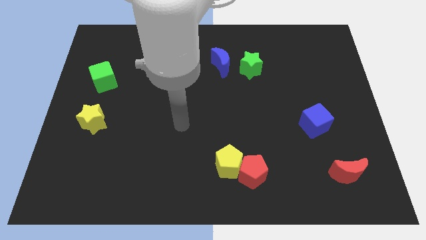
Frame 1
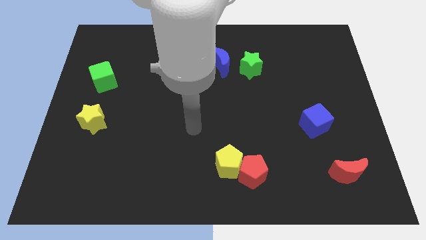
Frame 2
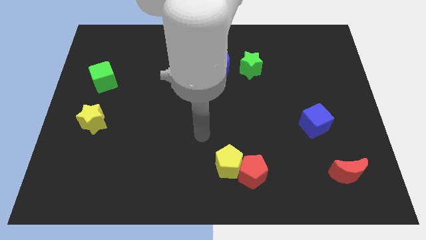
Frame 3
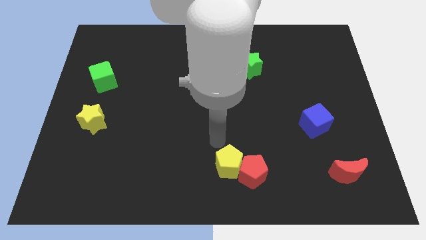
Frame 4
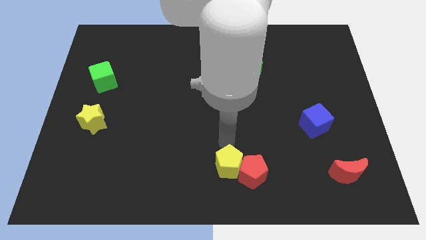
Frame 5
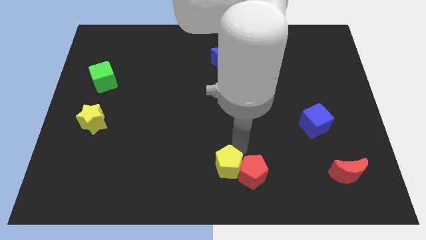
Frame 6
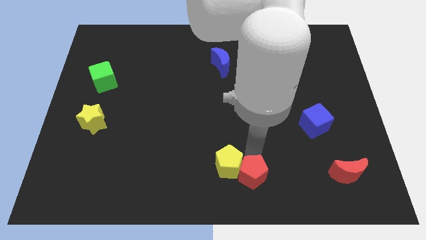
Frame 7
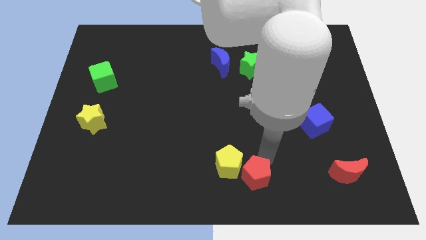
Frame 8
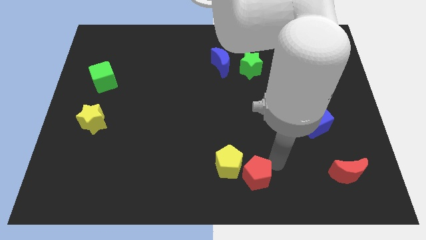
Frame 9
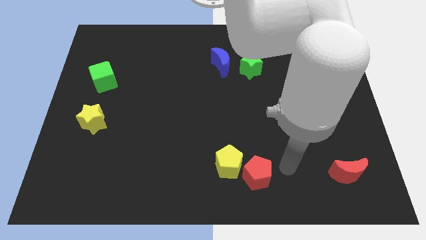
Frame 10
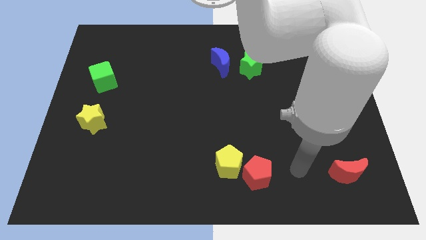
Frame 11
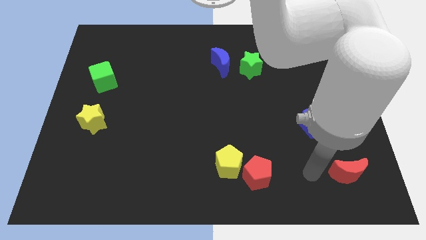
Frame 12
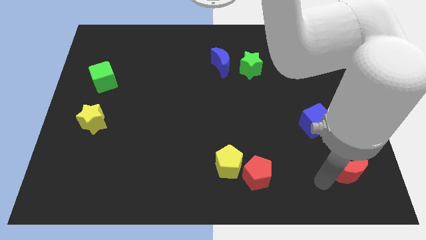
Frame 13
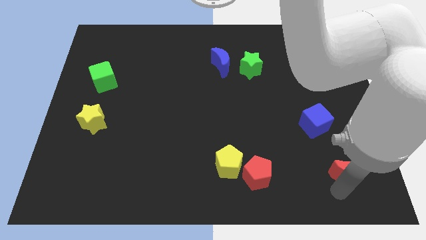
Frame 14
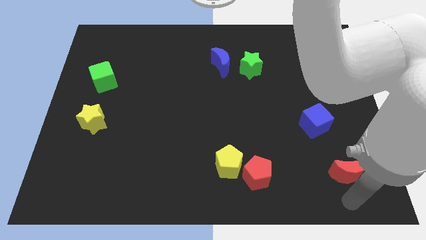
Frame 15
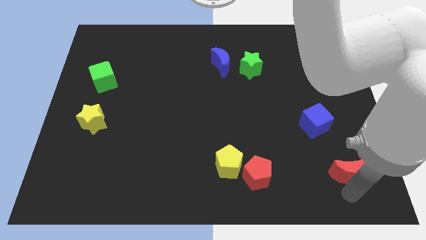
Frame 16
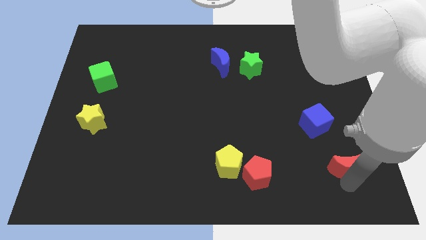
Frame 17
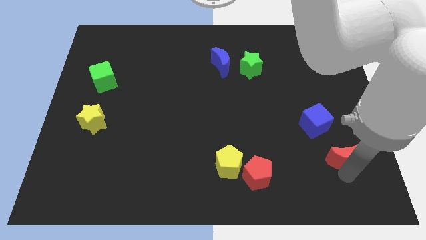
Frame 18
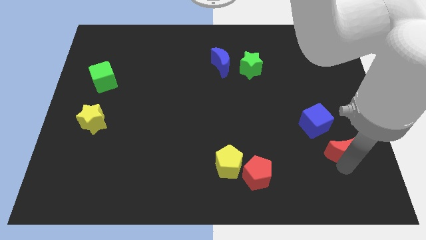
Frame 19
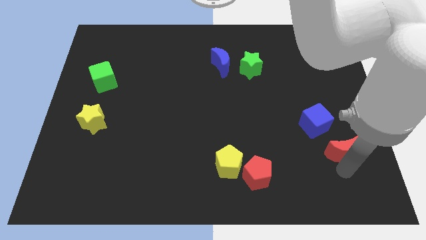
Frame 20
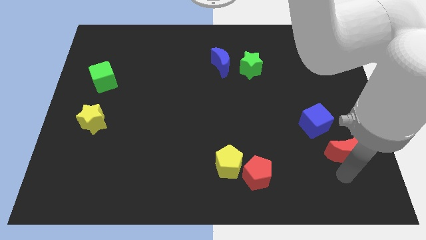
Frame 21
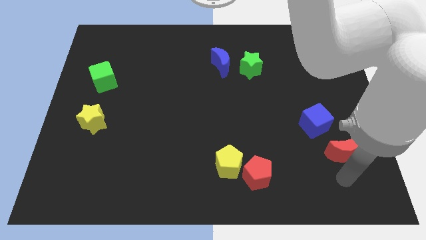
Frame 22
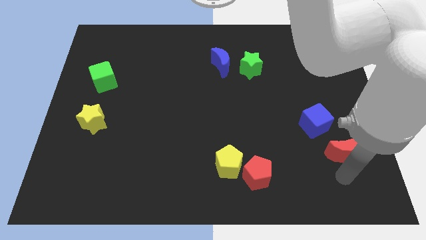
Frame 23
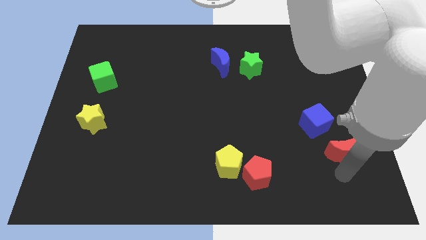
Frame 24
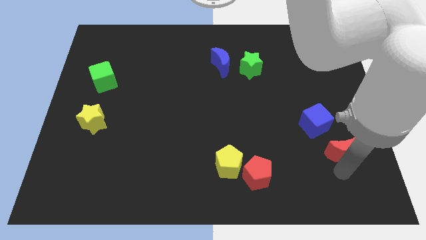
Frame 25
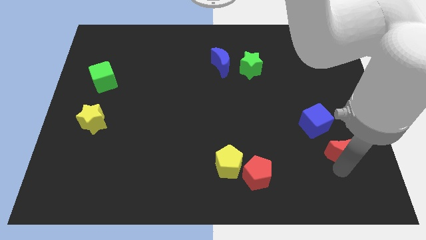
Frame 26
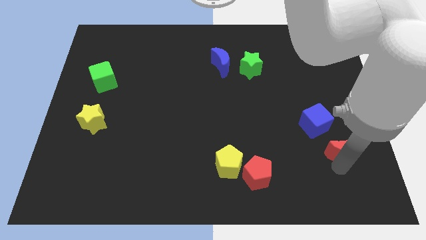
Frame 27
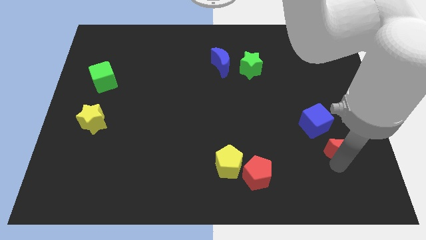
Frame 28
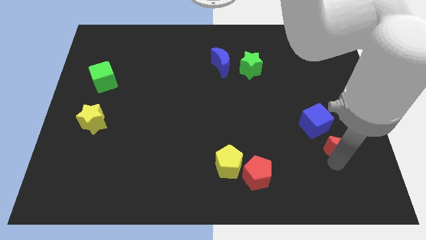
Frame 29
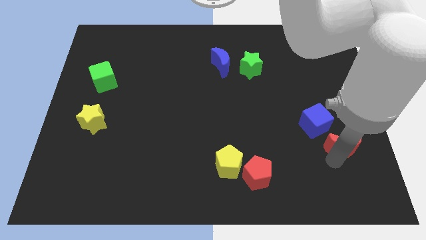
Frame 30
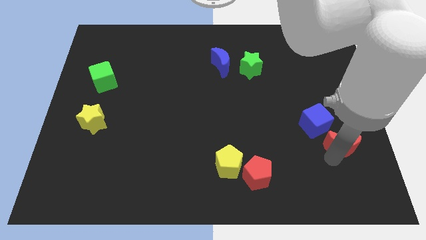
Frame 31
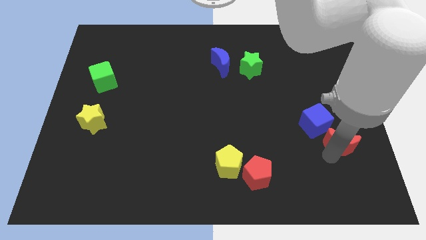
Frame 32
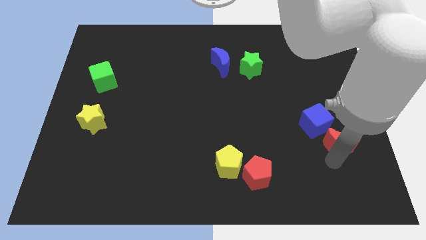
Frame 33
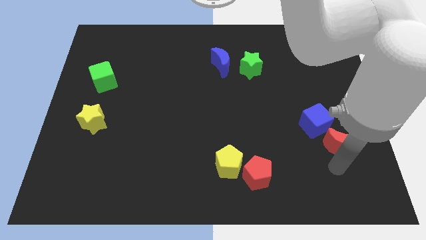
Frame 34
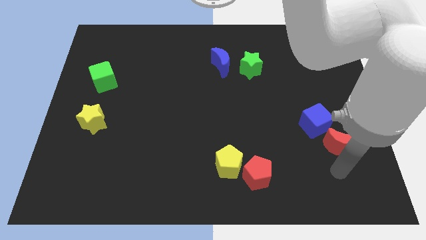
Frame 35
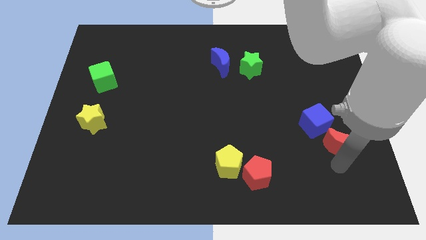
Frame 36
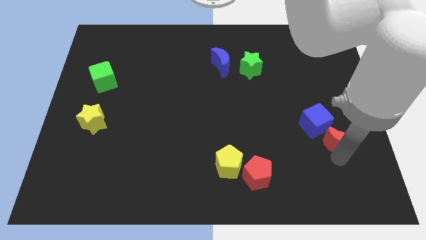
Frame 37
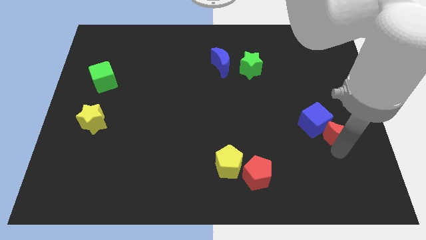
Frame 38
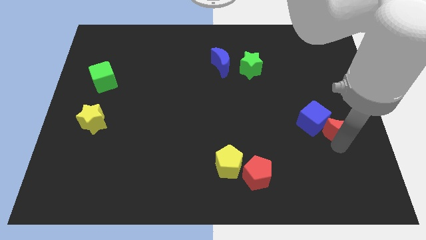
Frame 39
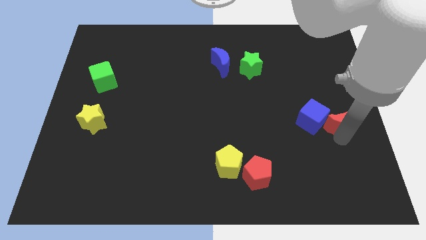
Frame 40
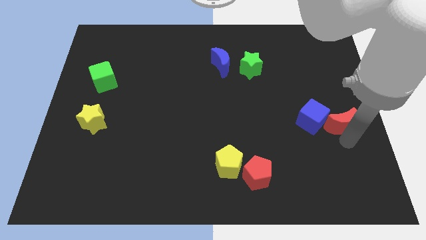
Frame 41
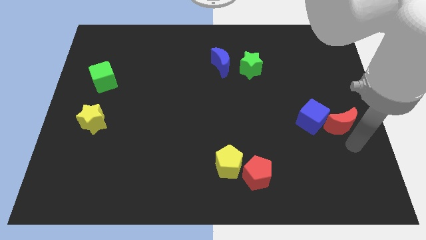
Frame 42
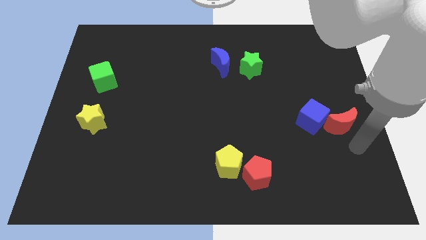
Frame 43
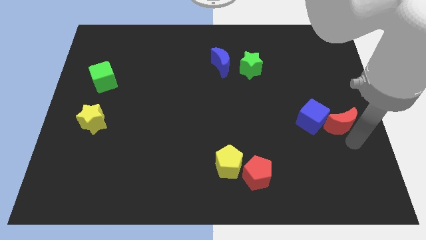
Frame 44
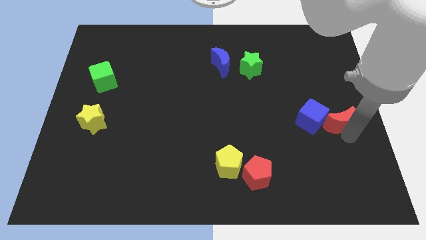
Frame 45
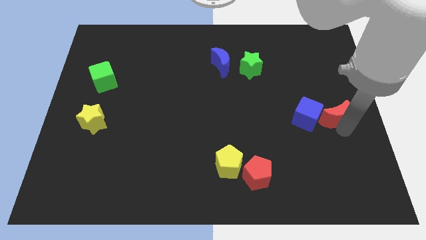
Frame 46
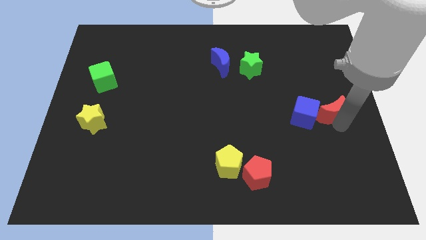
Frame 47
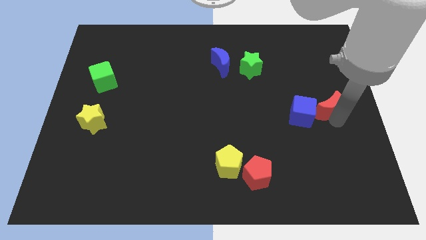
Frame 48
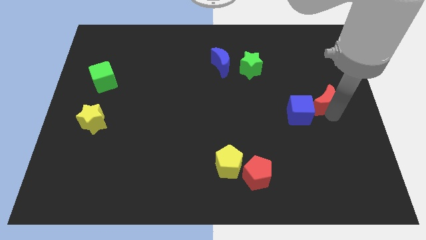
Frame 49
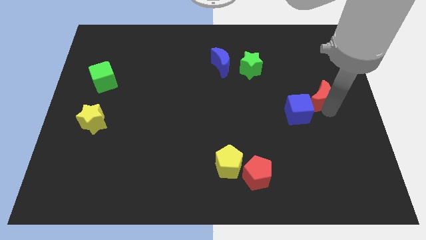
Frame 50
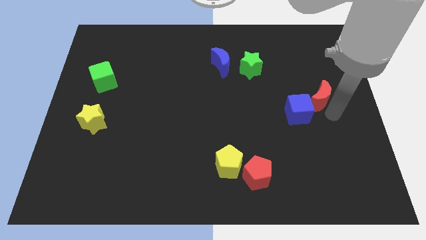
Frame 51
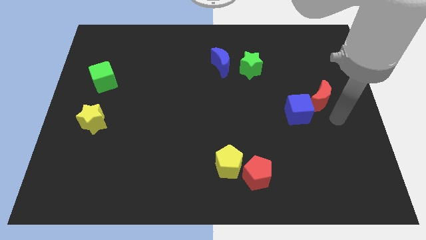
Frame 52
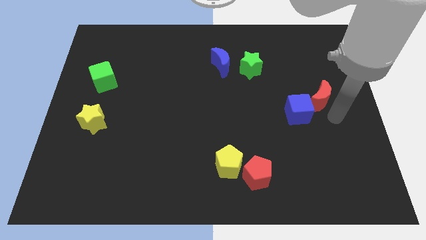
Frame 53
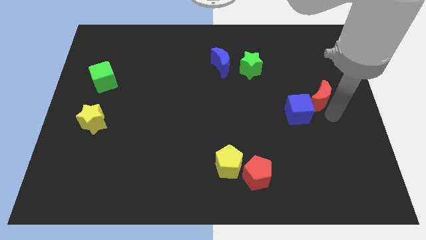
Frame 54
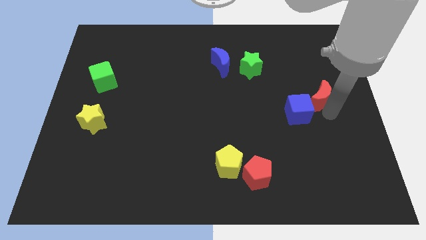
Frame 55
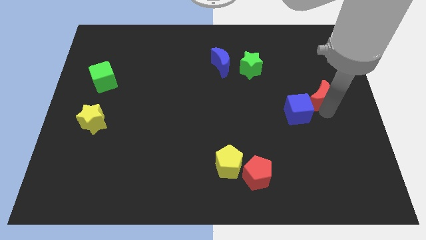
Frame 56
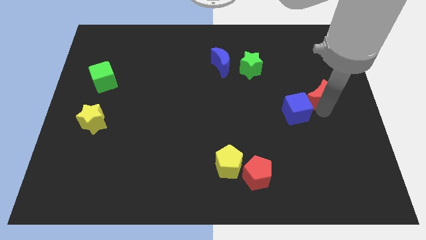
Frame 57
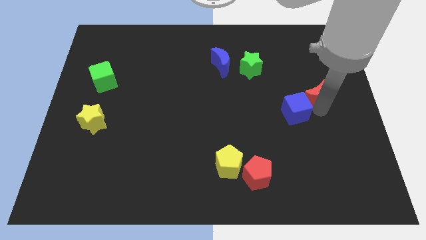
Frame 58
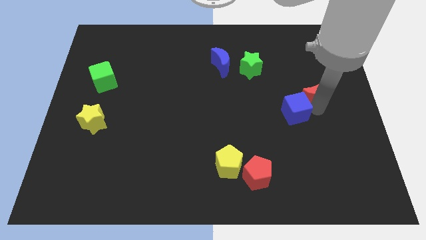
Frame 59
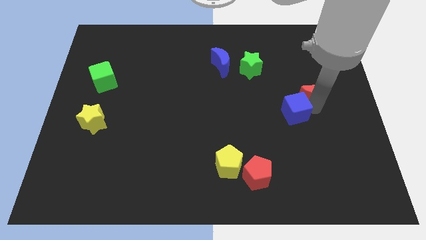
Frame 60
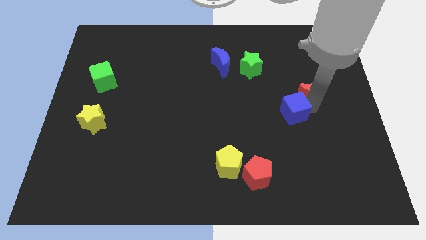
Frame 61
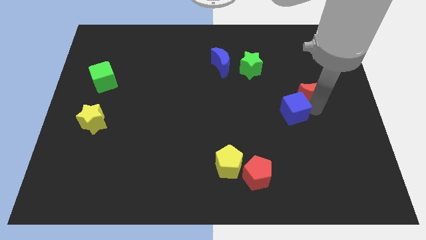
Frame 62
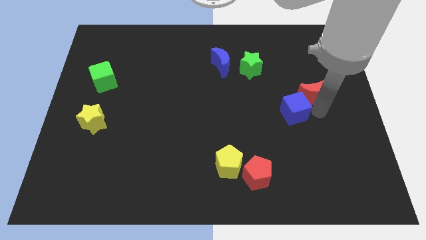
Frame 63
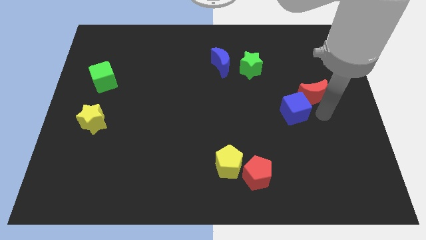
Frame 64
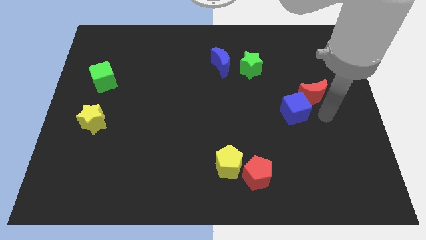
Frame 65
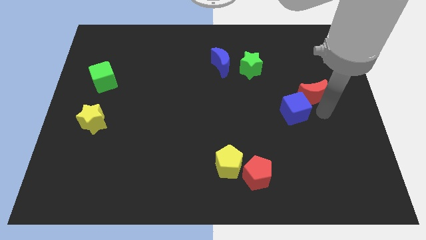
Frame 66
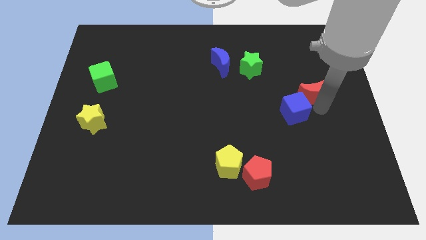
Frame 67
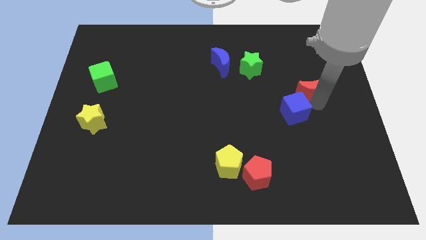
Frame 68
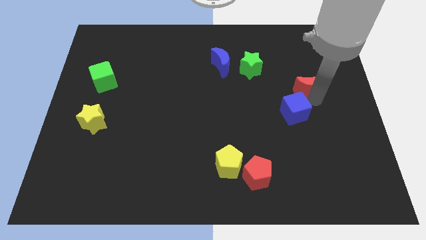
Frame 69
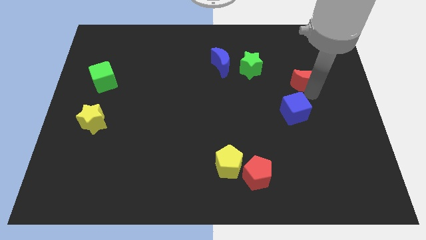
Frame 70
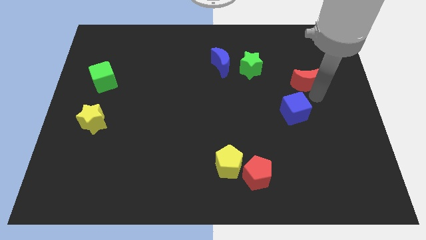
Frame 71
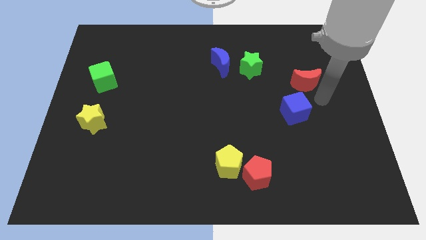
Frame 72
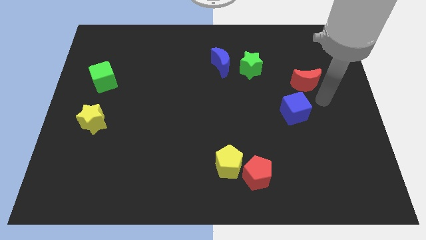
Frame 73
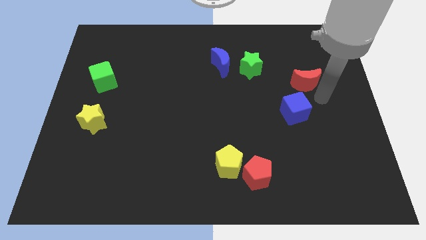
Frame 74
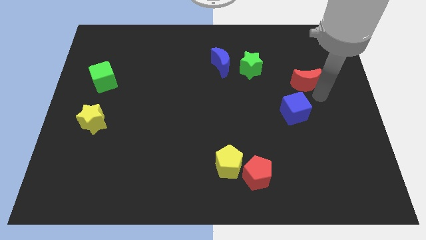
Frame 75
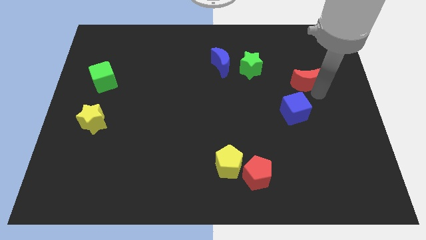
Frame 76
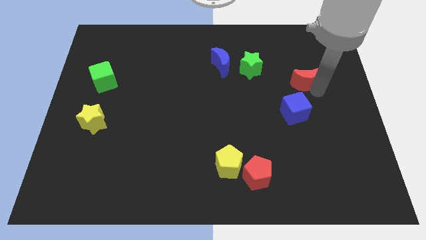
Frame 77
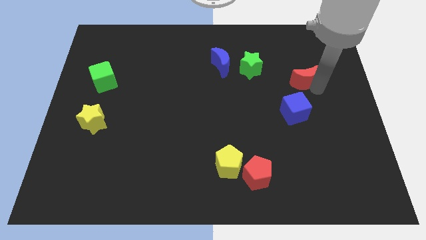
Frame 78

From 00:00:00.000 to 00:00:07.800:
put the red moon to the right of the green star
